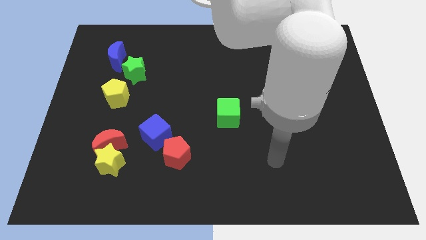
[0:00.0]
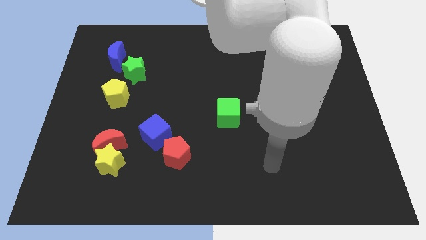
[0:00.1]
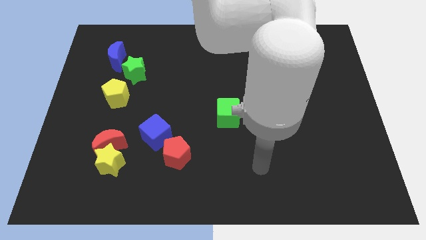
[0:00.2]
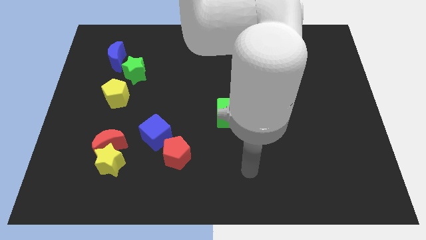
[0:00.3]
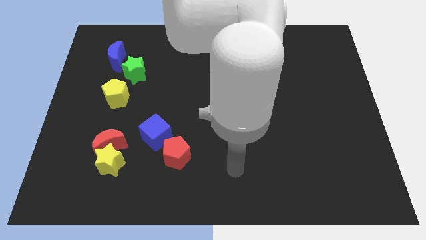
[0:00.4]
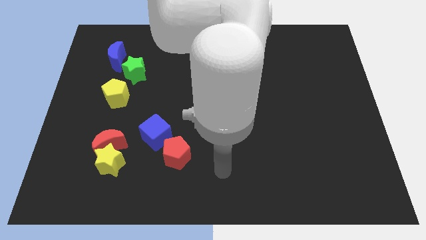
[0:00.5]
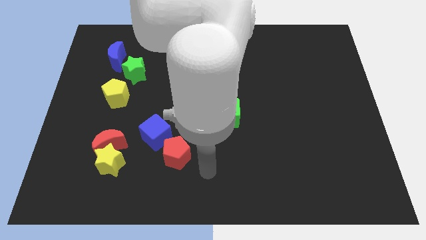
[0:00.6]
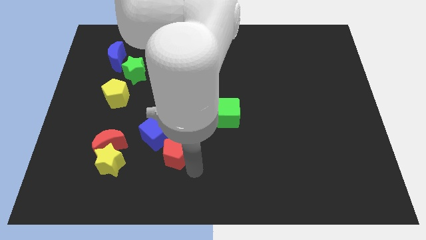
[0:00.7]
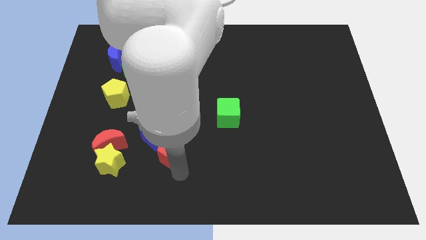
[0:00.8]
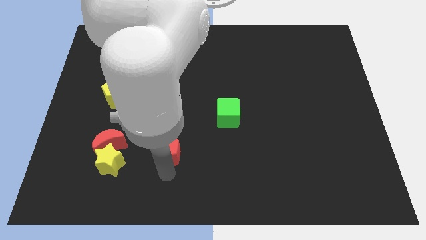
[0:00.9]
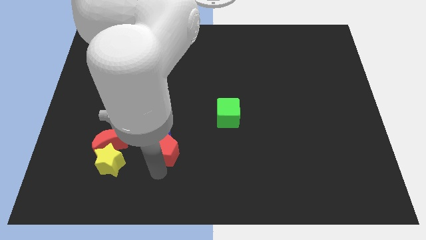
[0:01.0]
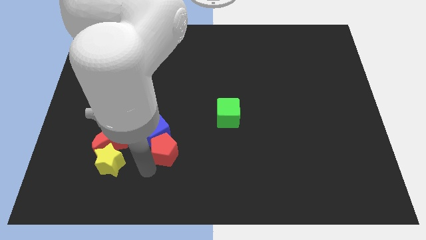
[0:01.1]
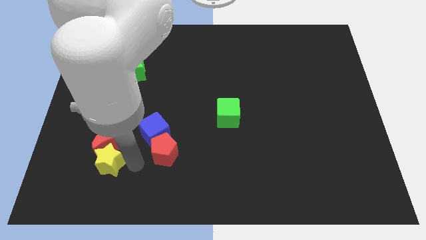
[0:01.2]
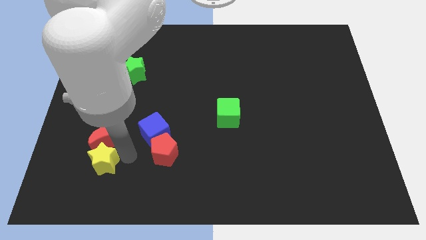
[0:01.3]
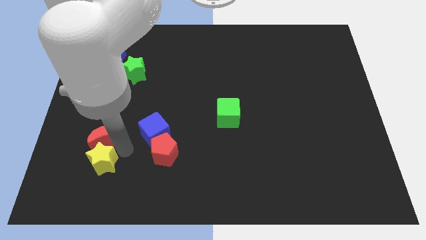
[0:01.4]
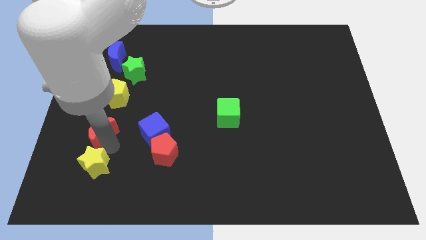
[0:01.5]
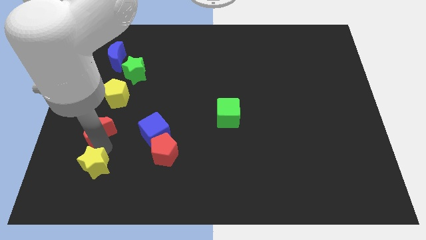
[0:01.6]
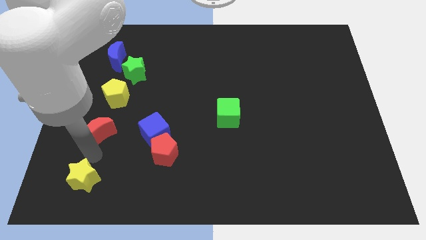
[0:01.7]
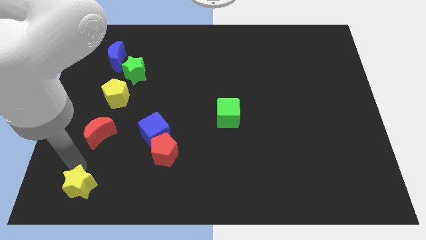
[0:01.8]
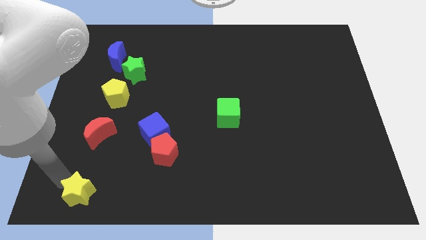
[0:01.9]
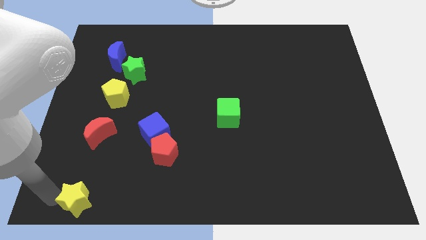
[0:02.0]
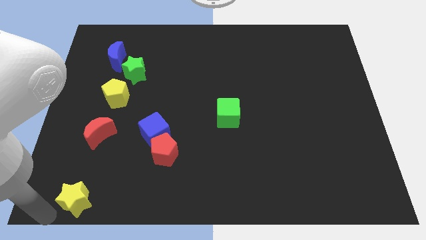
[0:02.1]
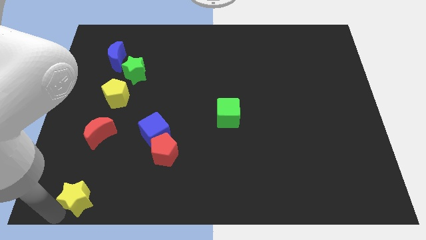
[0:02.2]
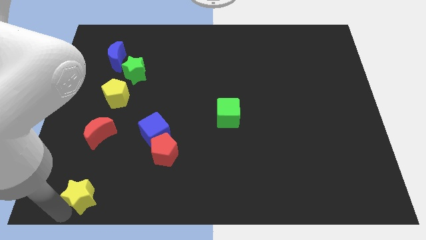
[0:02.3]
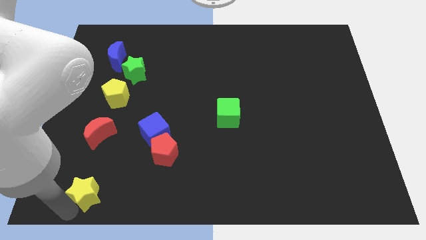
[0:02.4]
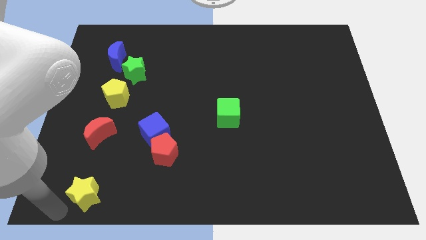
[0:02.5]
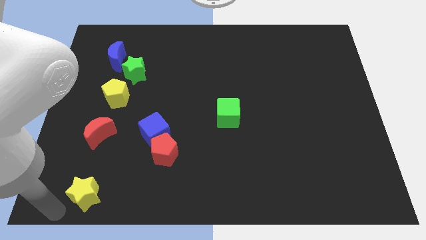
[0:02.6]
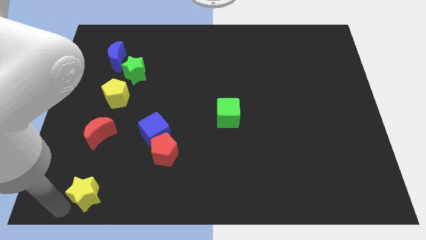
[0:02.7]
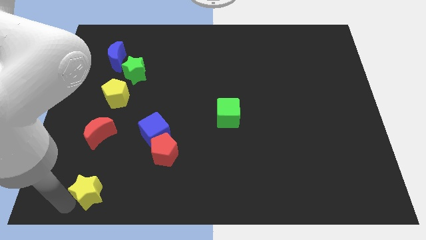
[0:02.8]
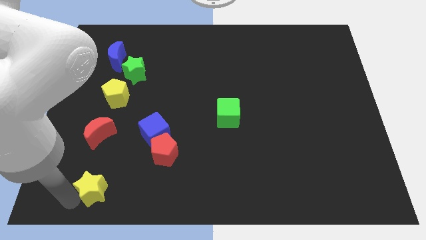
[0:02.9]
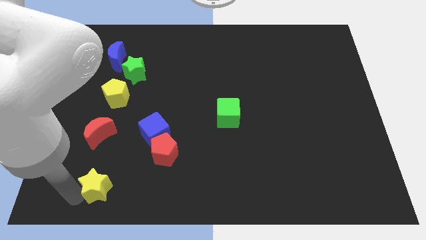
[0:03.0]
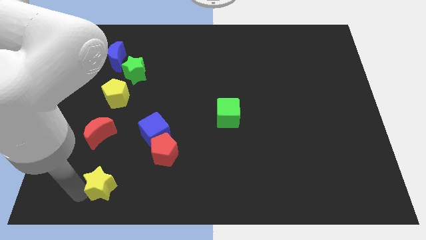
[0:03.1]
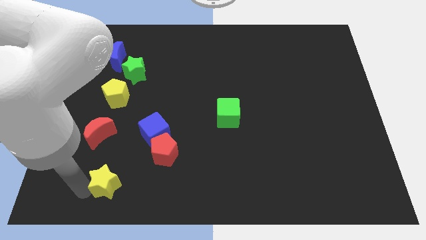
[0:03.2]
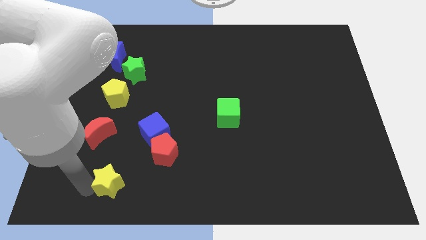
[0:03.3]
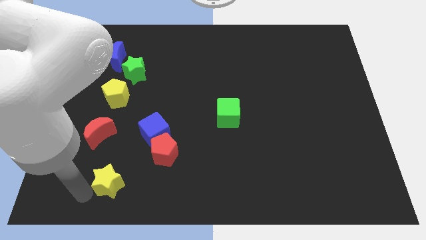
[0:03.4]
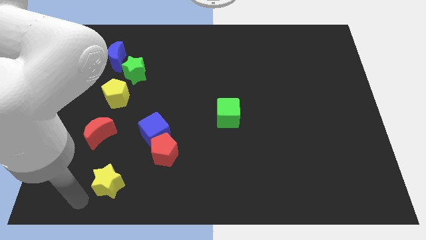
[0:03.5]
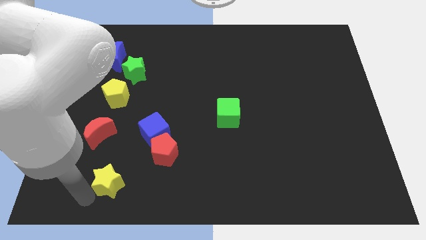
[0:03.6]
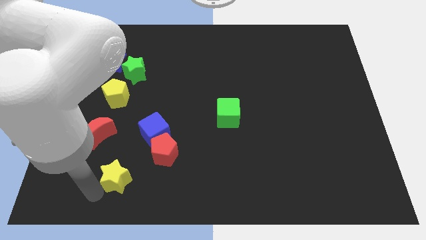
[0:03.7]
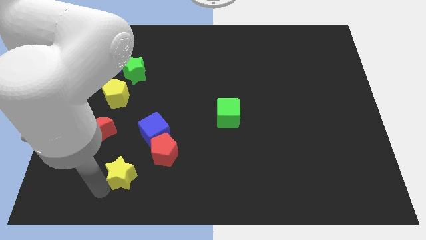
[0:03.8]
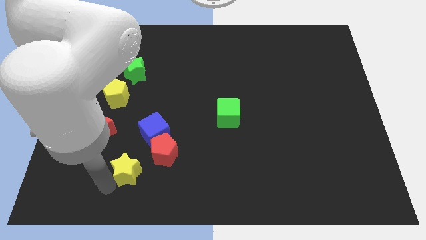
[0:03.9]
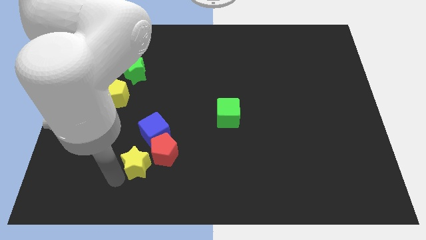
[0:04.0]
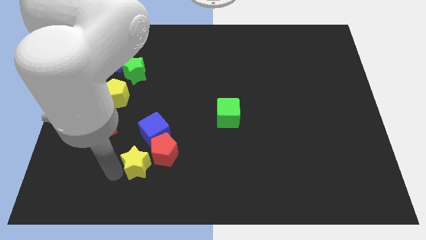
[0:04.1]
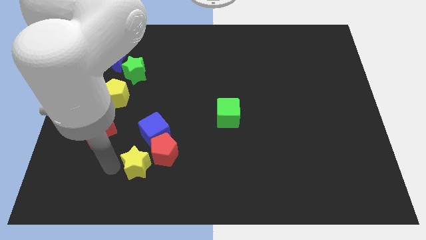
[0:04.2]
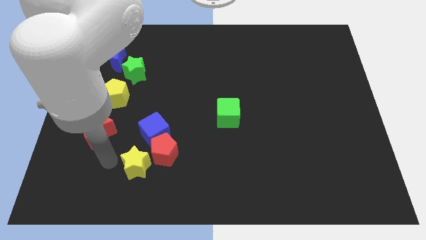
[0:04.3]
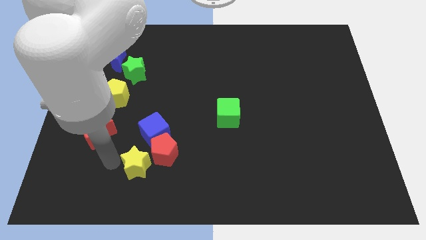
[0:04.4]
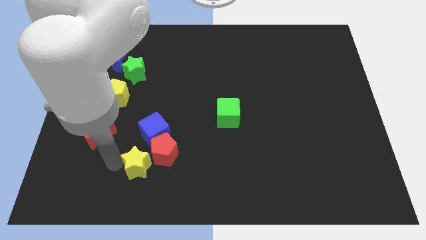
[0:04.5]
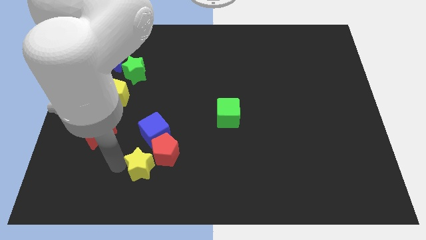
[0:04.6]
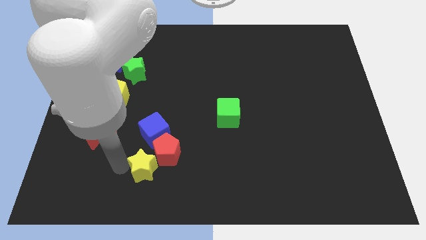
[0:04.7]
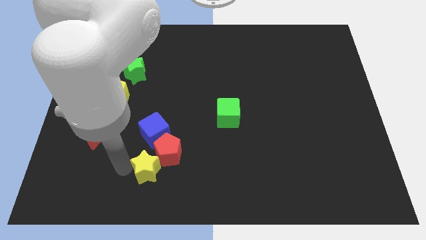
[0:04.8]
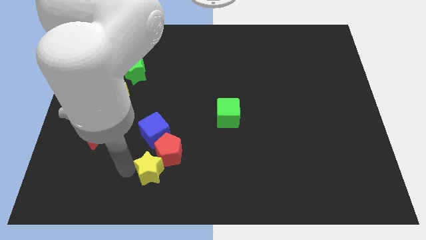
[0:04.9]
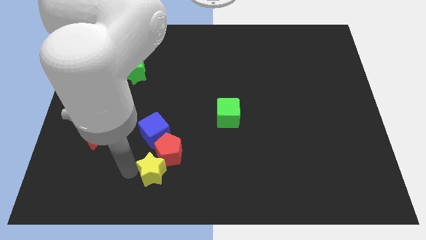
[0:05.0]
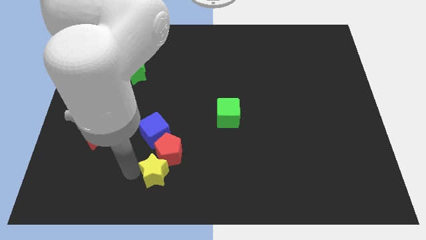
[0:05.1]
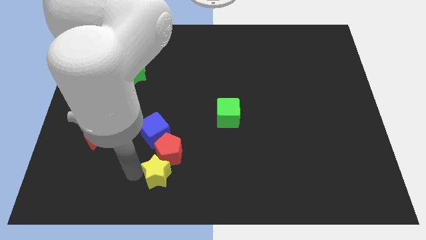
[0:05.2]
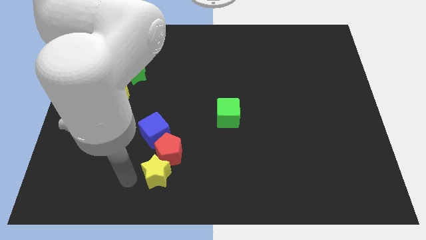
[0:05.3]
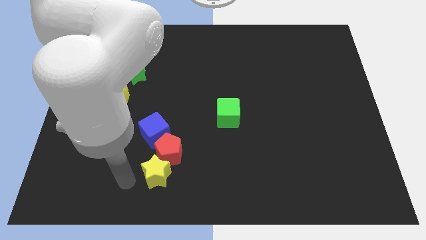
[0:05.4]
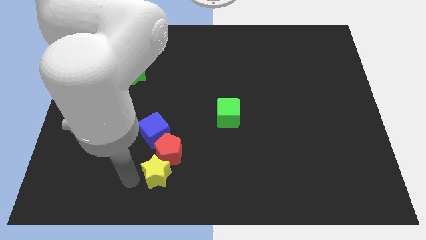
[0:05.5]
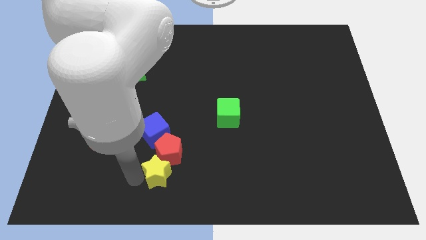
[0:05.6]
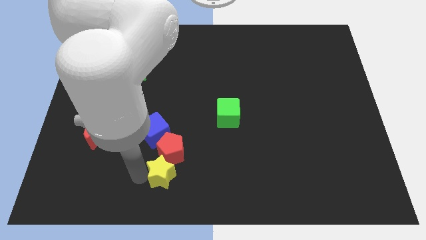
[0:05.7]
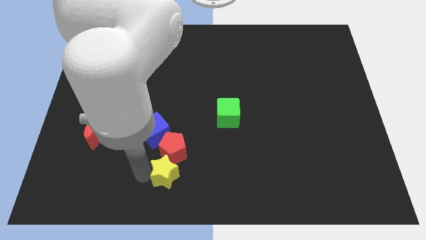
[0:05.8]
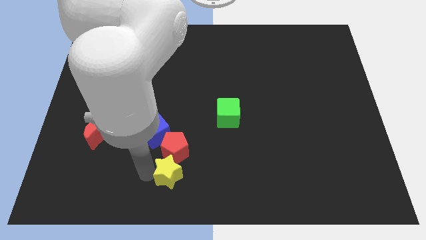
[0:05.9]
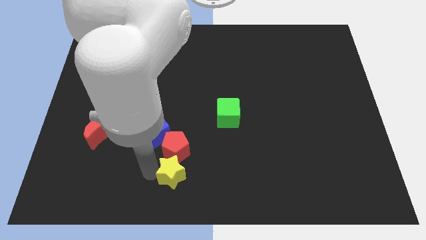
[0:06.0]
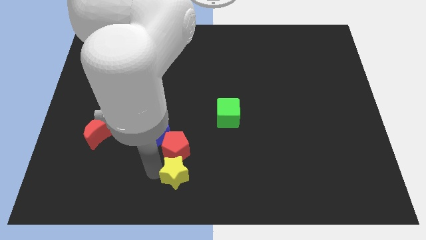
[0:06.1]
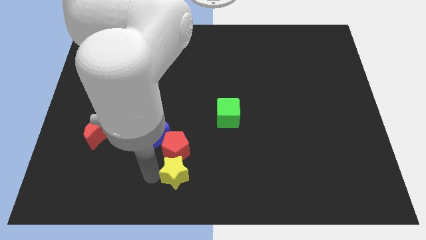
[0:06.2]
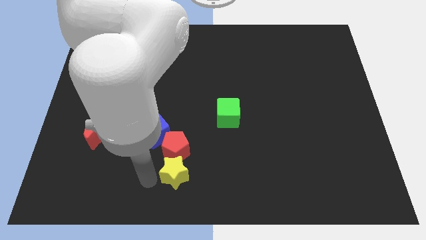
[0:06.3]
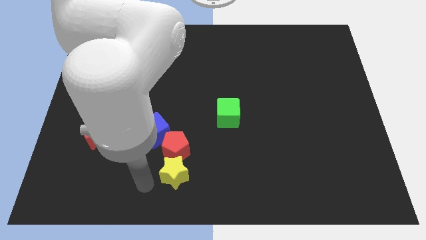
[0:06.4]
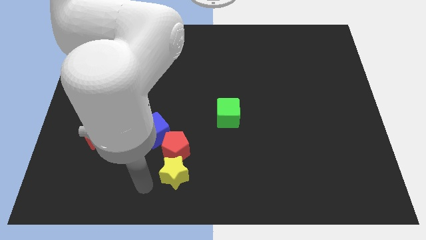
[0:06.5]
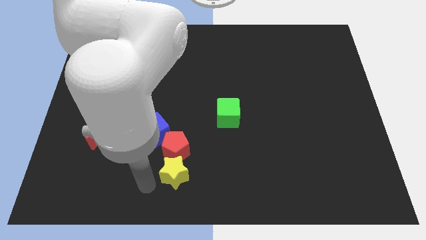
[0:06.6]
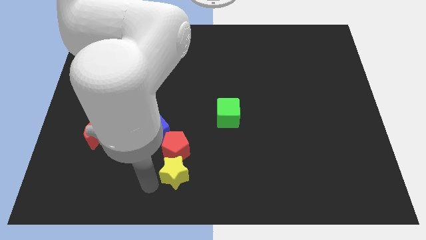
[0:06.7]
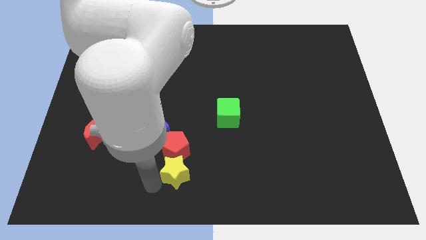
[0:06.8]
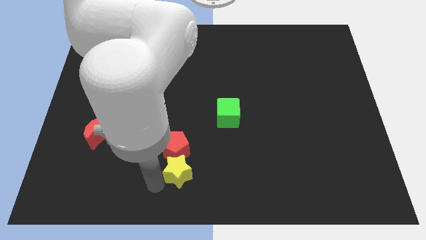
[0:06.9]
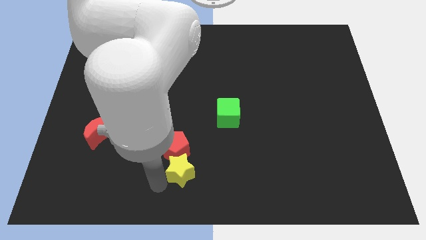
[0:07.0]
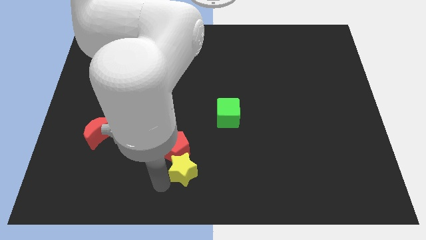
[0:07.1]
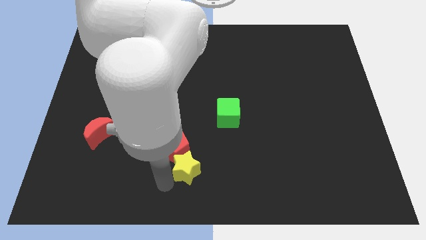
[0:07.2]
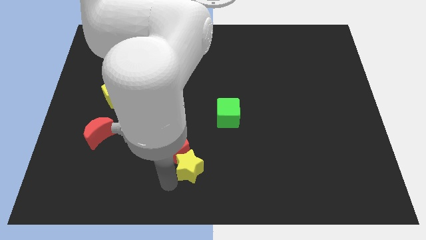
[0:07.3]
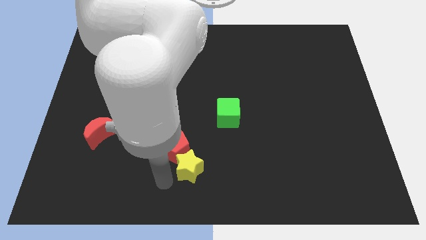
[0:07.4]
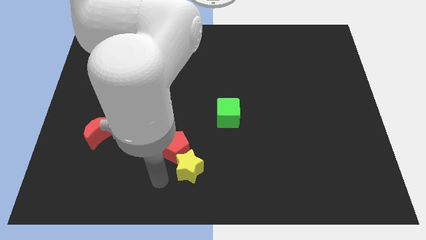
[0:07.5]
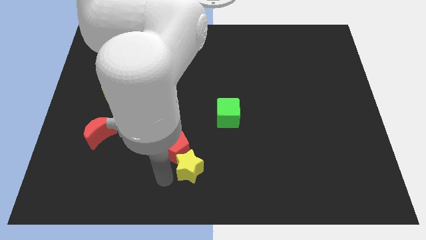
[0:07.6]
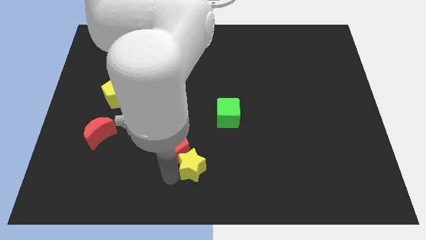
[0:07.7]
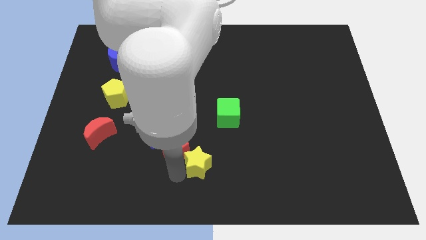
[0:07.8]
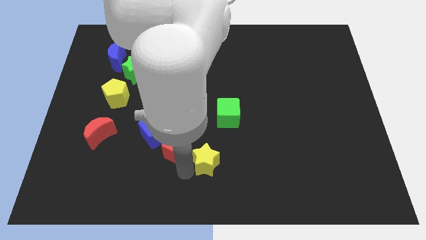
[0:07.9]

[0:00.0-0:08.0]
put the yellow star to the bottom of the green cube
